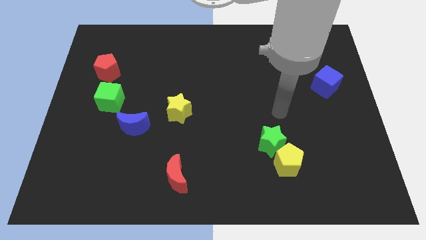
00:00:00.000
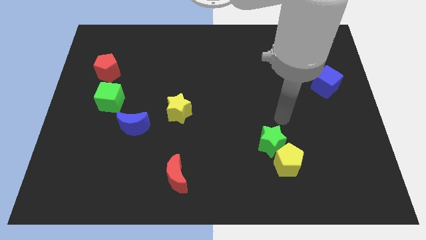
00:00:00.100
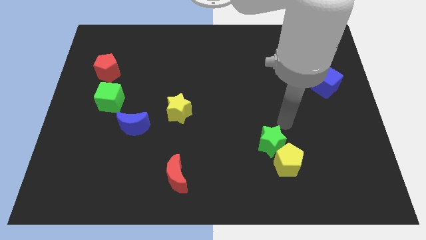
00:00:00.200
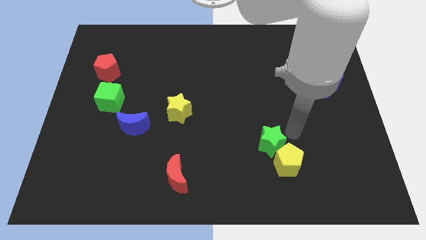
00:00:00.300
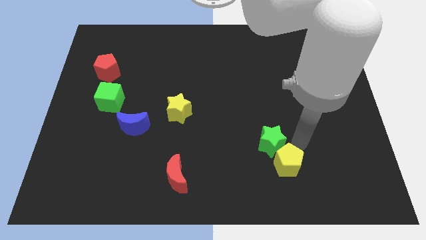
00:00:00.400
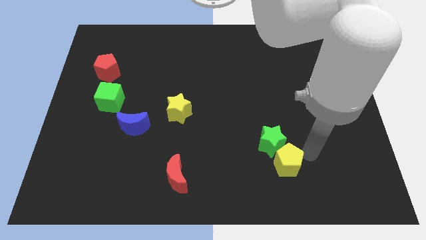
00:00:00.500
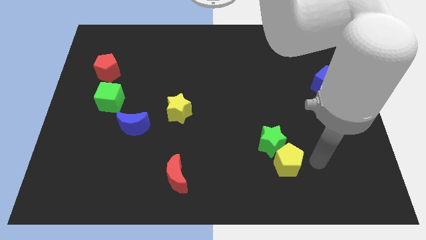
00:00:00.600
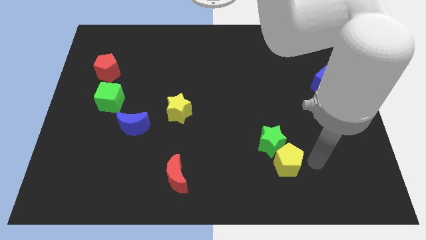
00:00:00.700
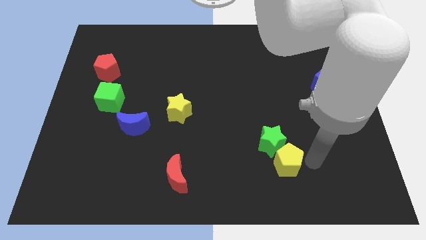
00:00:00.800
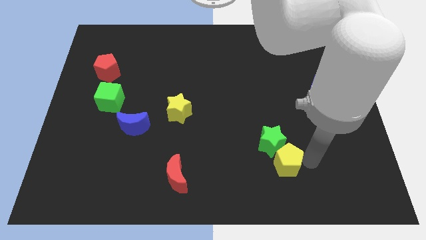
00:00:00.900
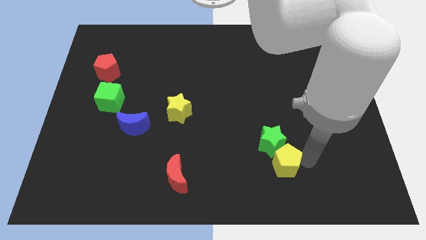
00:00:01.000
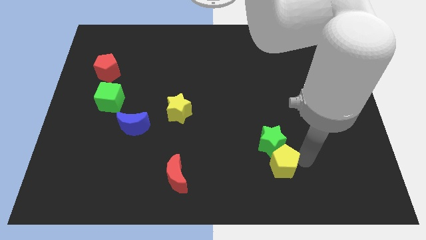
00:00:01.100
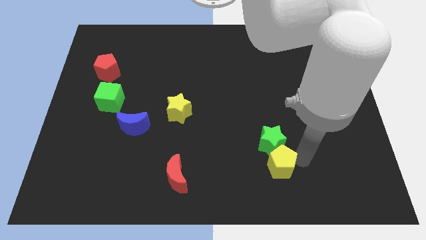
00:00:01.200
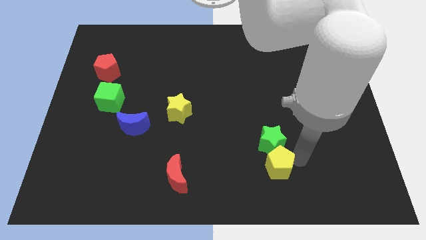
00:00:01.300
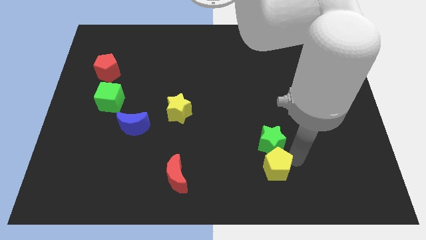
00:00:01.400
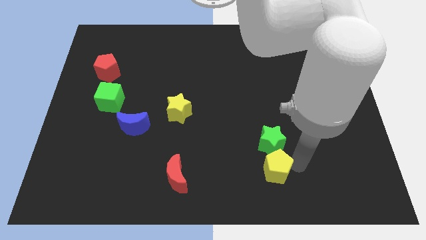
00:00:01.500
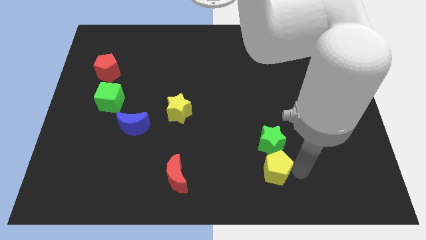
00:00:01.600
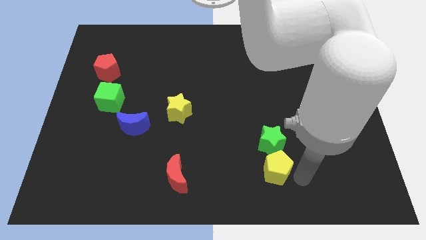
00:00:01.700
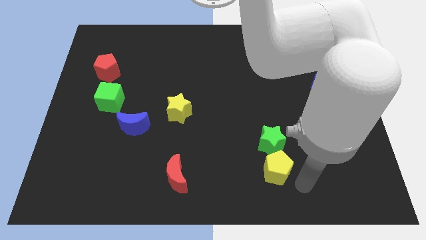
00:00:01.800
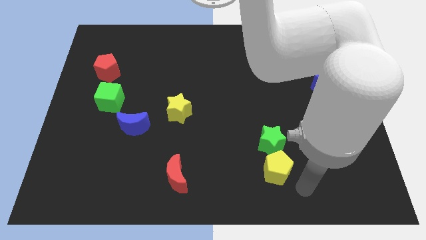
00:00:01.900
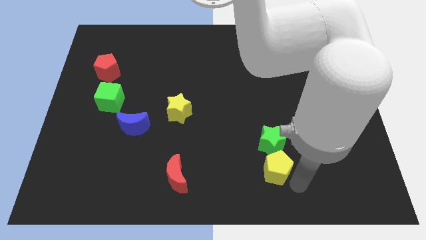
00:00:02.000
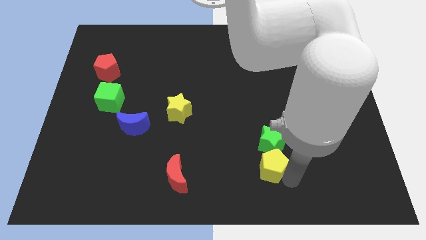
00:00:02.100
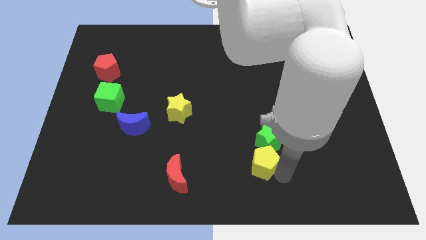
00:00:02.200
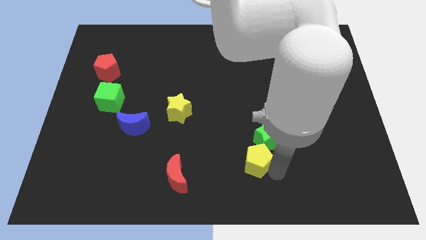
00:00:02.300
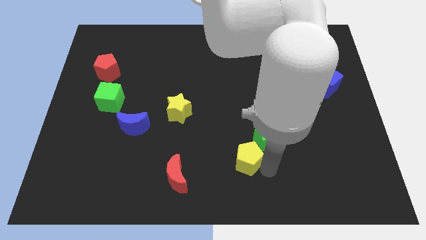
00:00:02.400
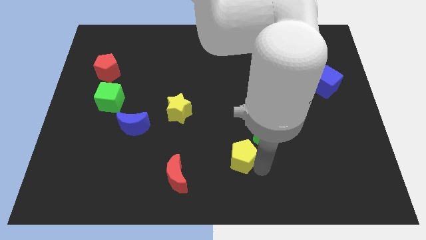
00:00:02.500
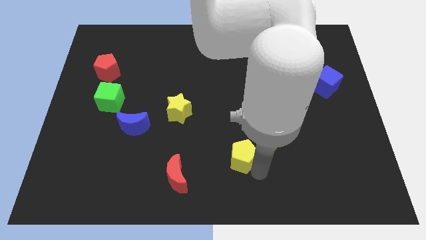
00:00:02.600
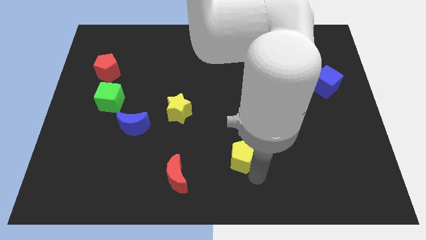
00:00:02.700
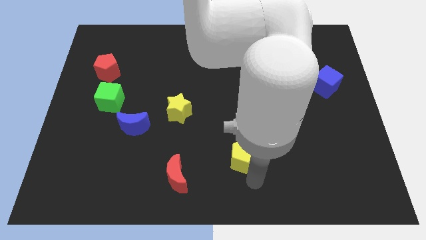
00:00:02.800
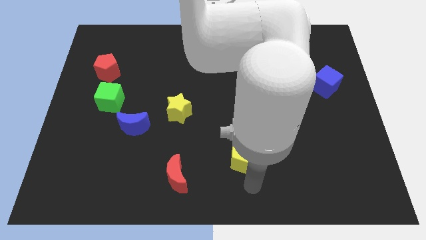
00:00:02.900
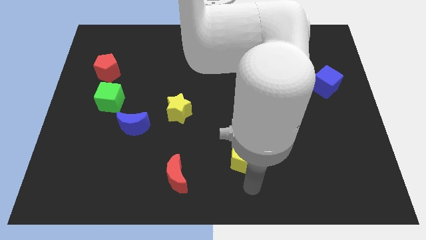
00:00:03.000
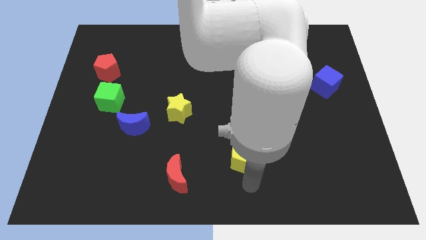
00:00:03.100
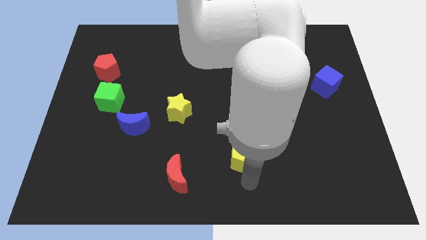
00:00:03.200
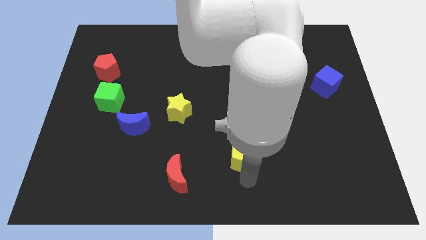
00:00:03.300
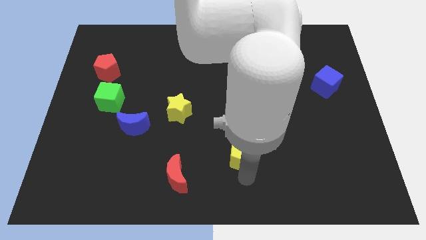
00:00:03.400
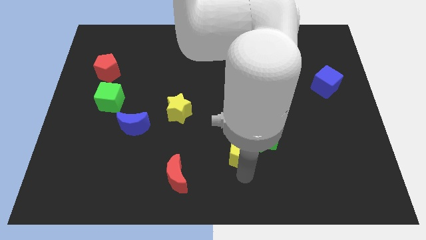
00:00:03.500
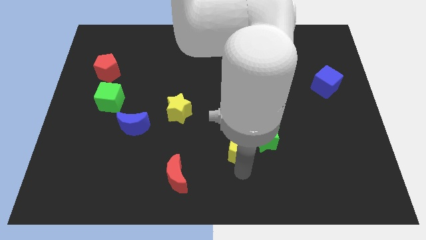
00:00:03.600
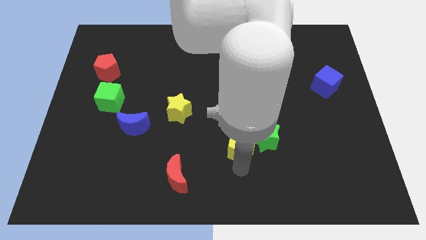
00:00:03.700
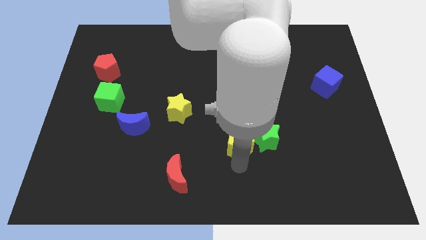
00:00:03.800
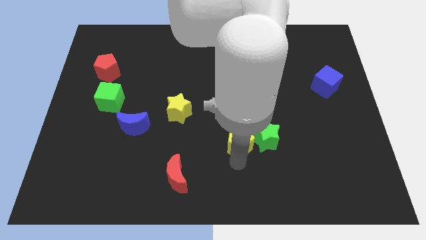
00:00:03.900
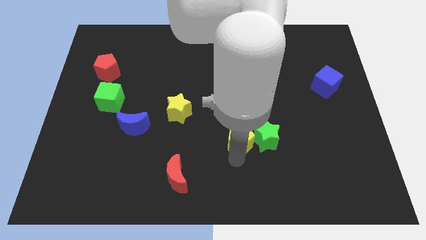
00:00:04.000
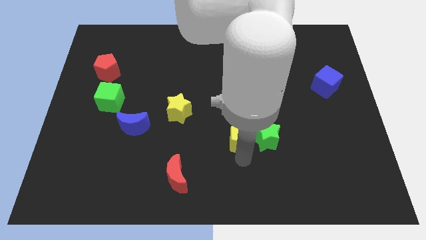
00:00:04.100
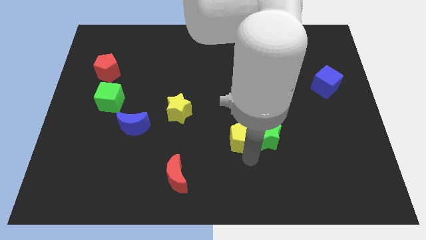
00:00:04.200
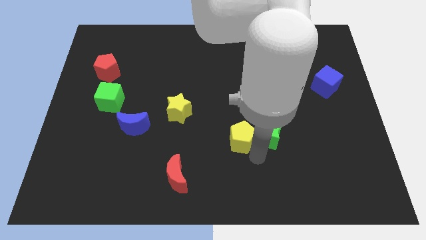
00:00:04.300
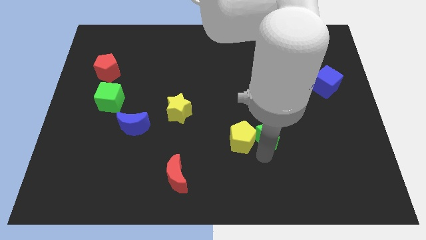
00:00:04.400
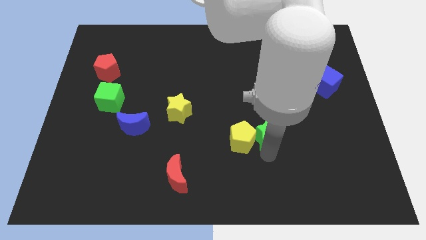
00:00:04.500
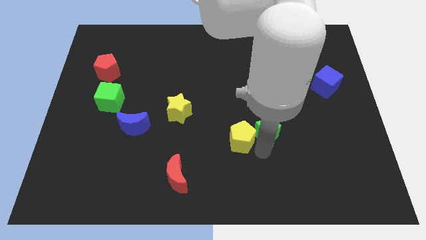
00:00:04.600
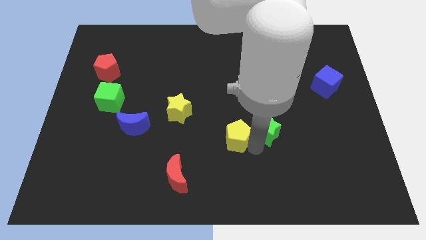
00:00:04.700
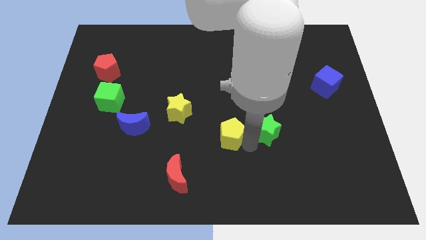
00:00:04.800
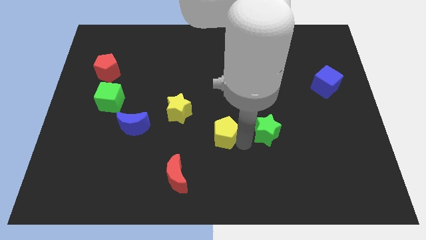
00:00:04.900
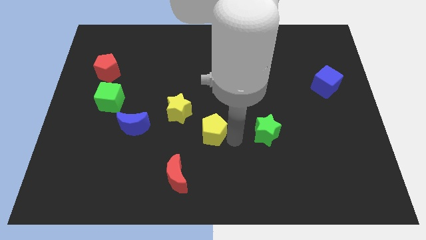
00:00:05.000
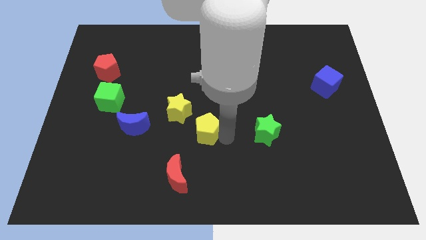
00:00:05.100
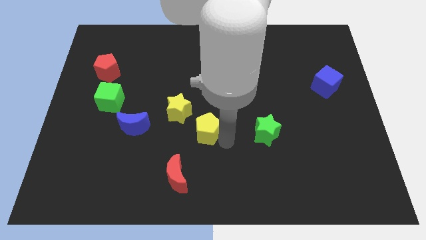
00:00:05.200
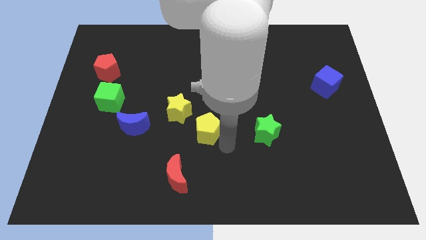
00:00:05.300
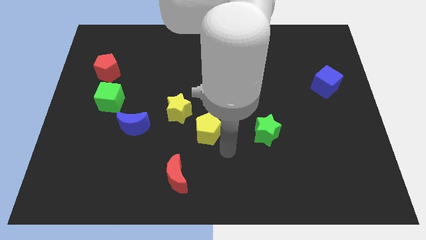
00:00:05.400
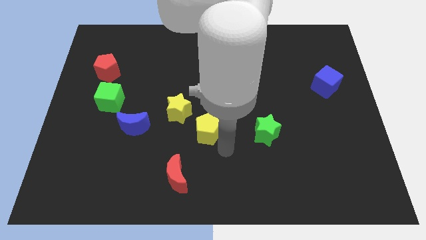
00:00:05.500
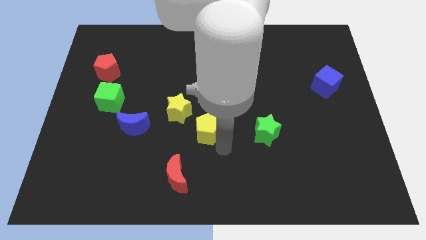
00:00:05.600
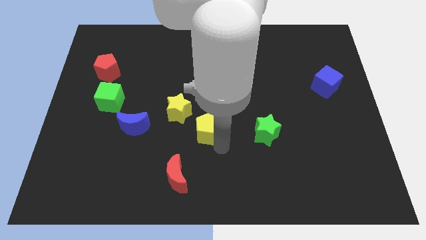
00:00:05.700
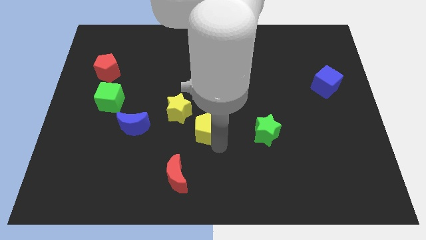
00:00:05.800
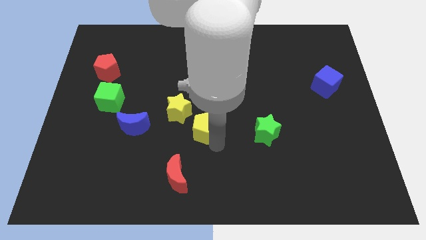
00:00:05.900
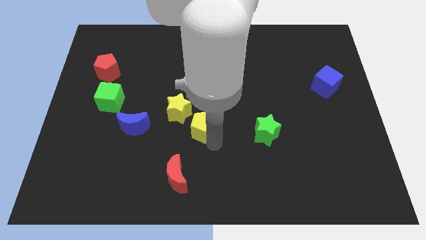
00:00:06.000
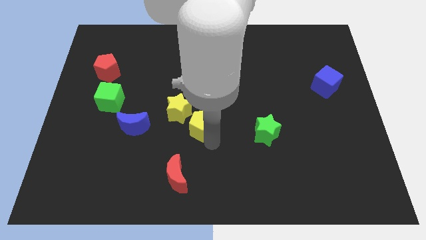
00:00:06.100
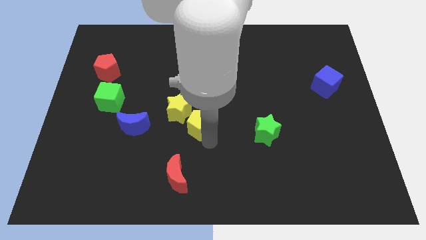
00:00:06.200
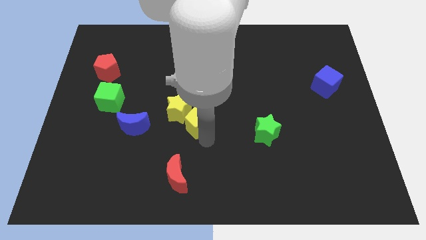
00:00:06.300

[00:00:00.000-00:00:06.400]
move the yellow pentagon to the yellow star
